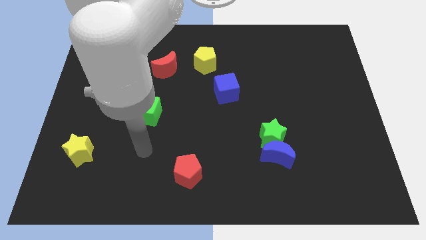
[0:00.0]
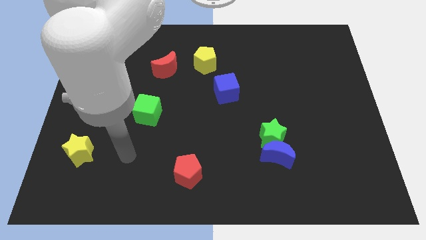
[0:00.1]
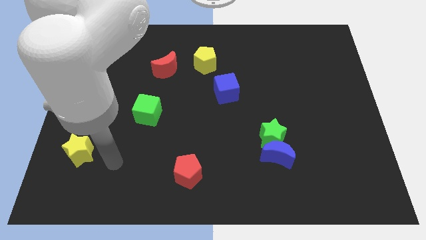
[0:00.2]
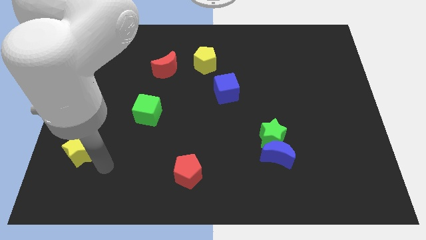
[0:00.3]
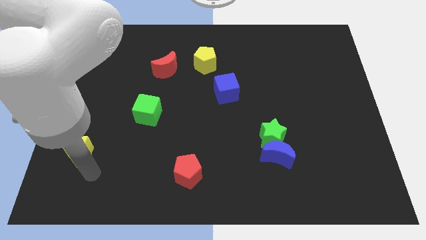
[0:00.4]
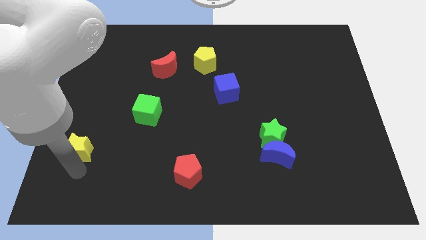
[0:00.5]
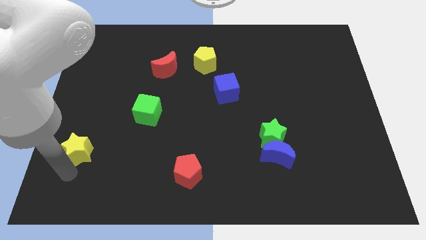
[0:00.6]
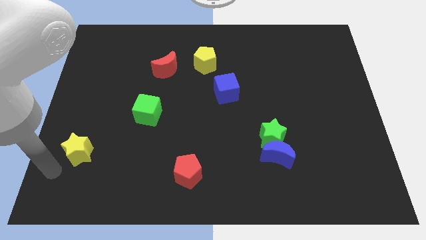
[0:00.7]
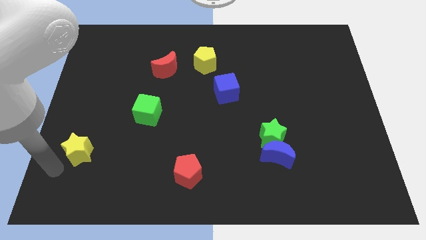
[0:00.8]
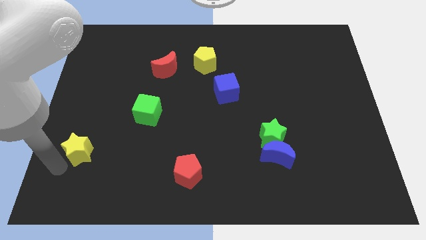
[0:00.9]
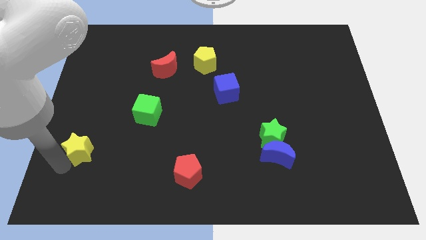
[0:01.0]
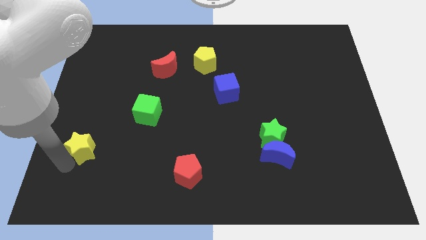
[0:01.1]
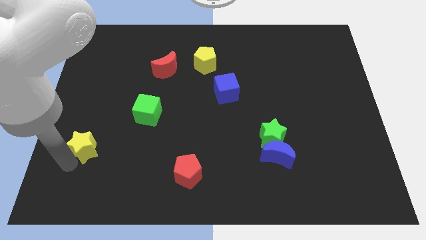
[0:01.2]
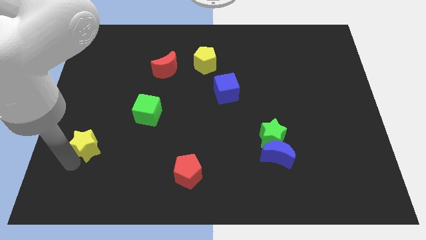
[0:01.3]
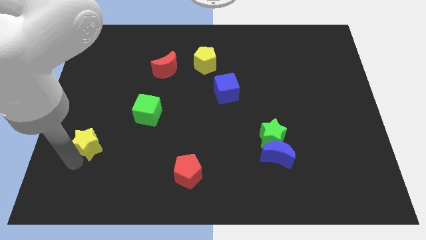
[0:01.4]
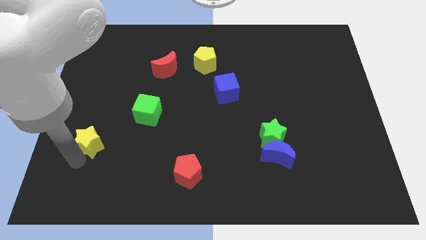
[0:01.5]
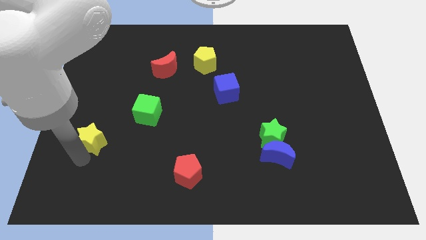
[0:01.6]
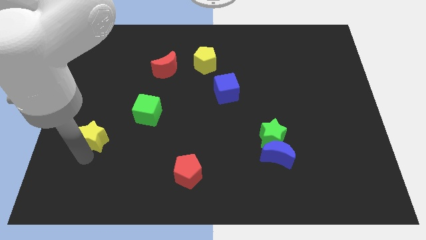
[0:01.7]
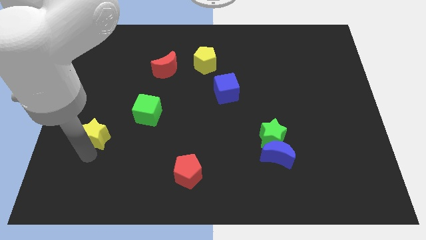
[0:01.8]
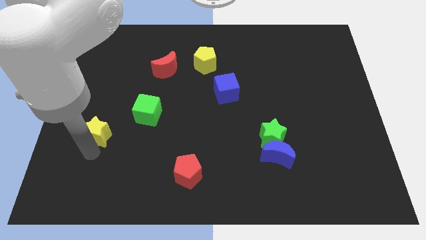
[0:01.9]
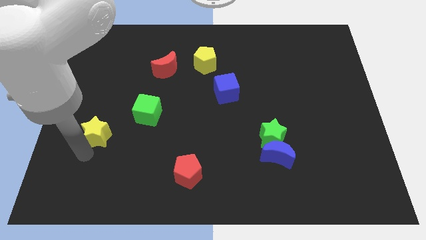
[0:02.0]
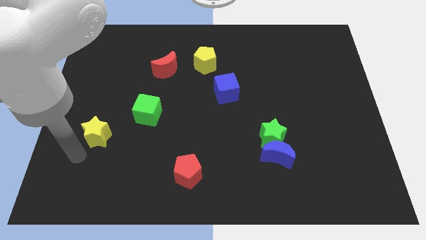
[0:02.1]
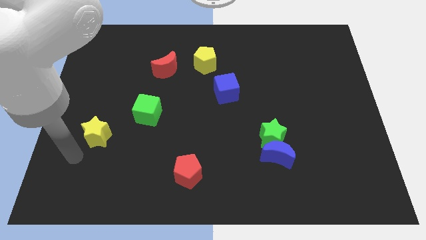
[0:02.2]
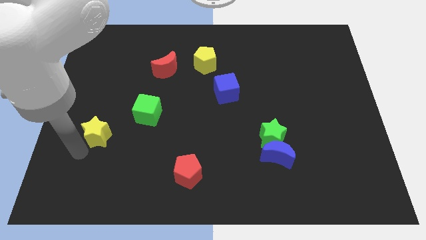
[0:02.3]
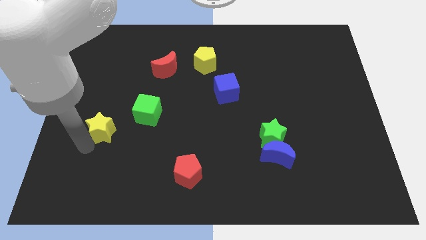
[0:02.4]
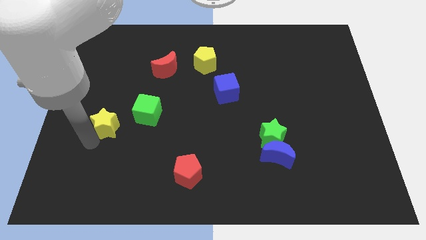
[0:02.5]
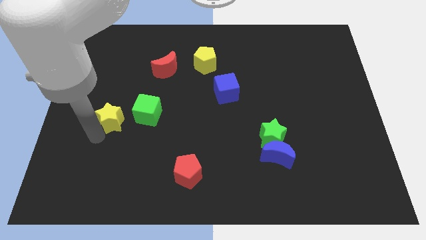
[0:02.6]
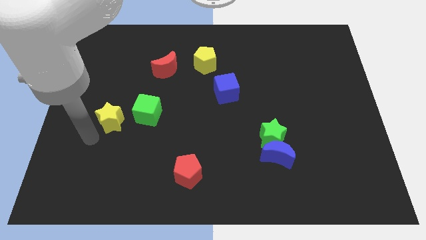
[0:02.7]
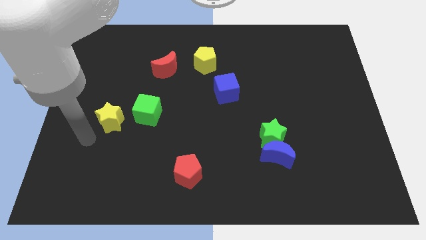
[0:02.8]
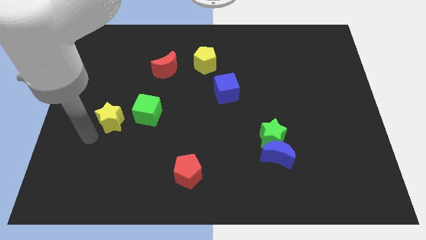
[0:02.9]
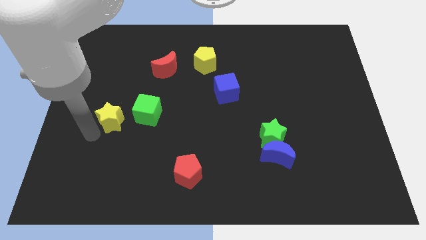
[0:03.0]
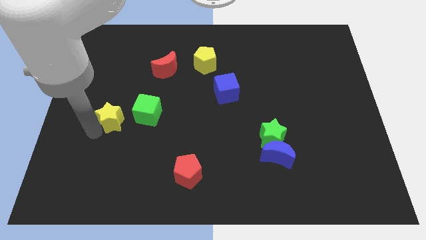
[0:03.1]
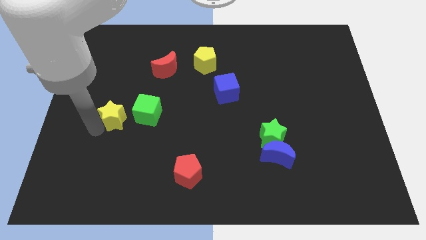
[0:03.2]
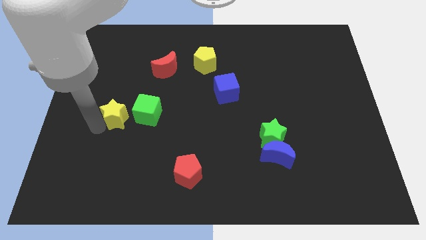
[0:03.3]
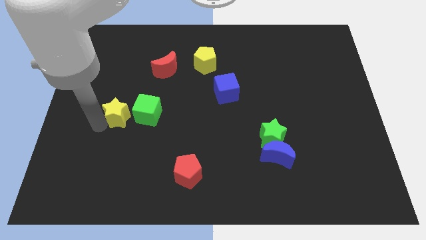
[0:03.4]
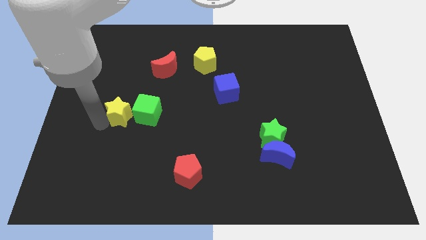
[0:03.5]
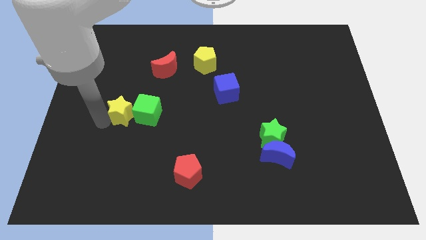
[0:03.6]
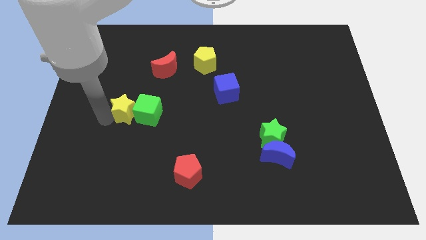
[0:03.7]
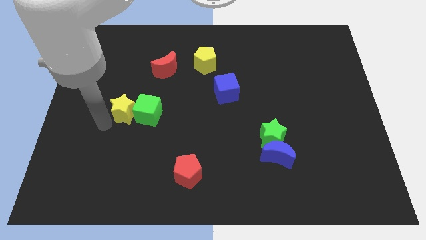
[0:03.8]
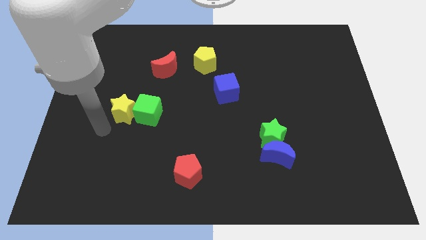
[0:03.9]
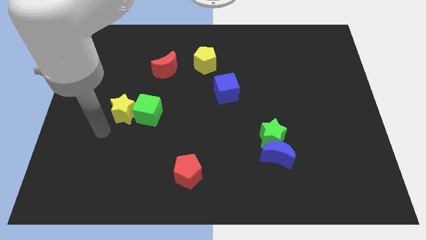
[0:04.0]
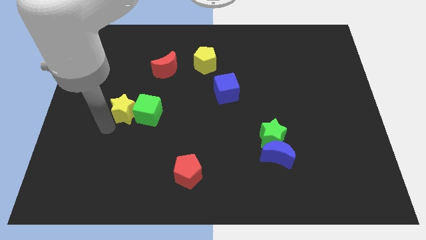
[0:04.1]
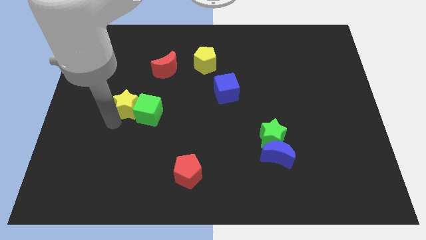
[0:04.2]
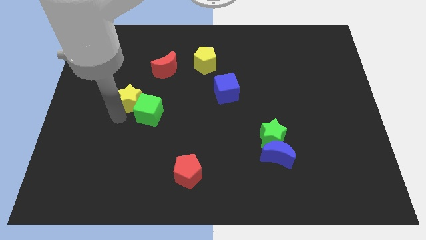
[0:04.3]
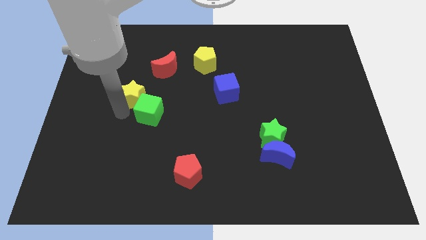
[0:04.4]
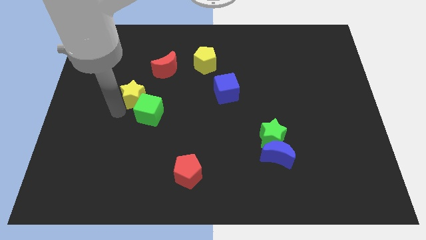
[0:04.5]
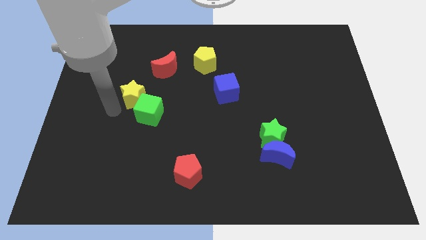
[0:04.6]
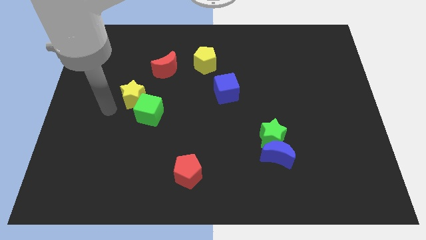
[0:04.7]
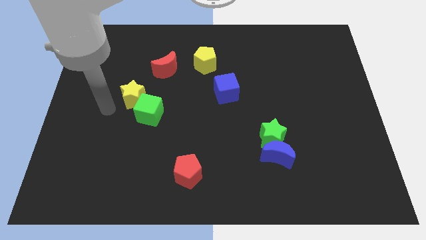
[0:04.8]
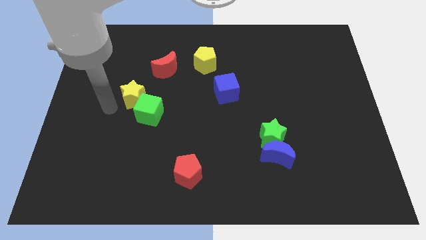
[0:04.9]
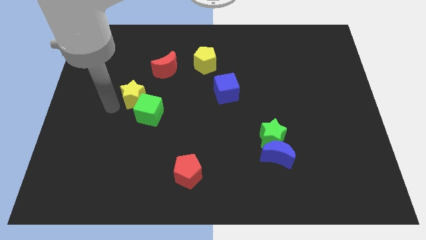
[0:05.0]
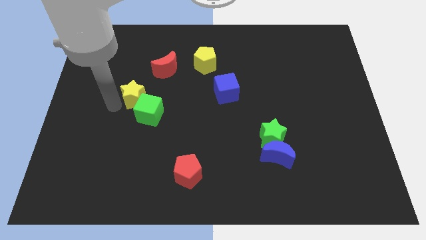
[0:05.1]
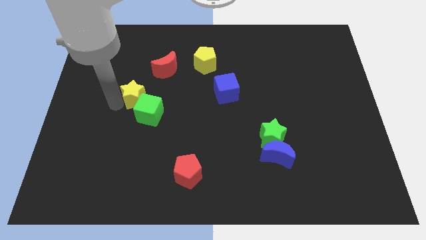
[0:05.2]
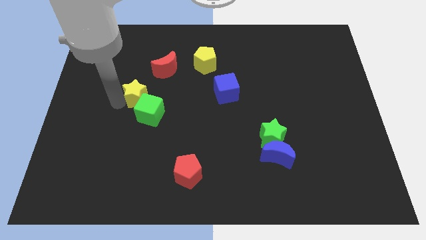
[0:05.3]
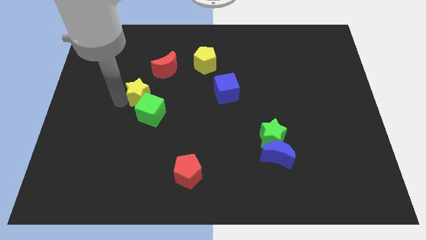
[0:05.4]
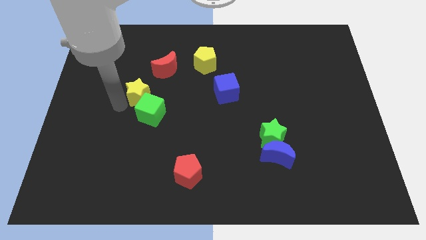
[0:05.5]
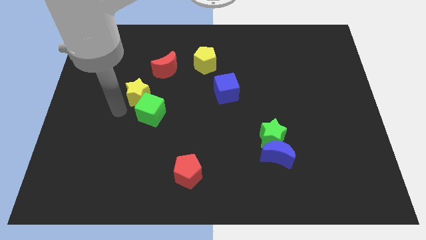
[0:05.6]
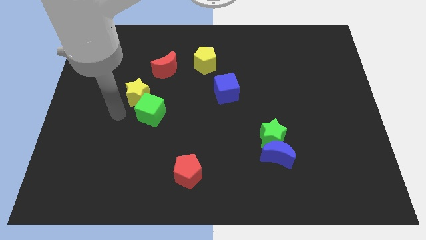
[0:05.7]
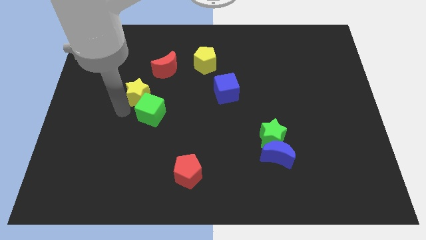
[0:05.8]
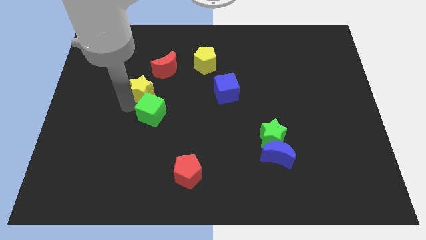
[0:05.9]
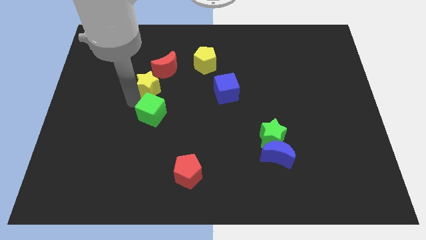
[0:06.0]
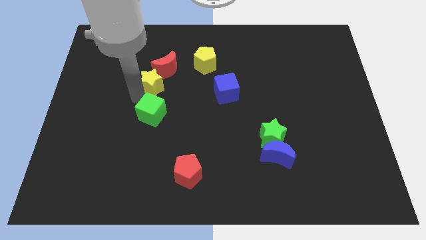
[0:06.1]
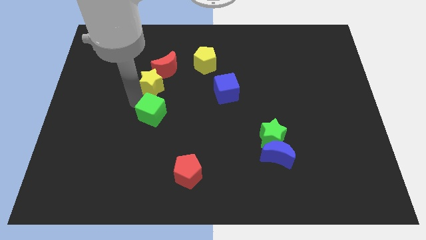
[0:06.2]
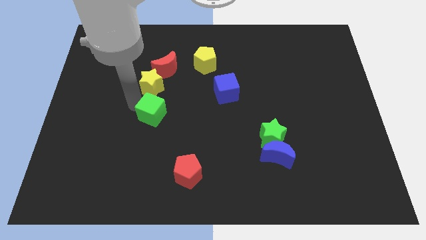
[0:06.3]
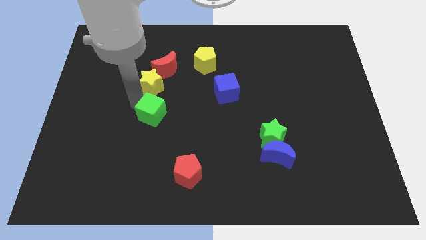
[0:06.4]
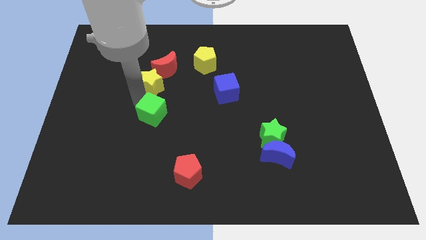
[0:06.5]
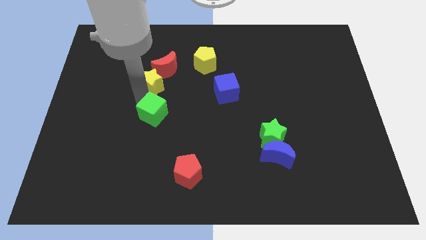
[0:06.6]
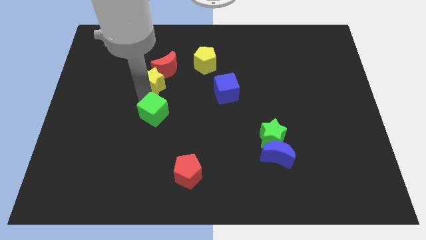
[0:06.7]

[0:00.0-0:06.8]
slide the yellow star next to the red moon
